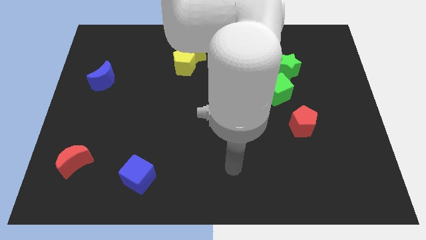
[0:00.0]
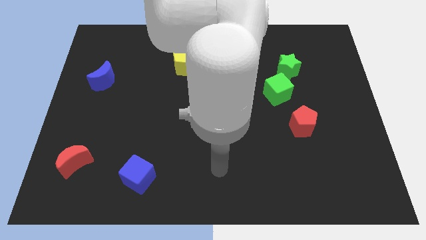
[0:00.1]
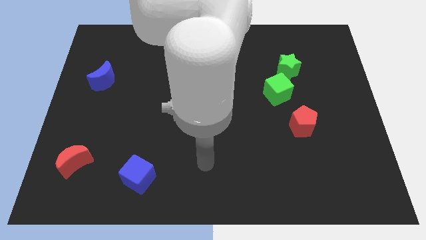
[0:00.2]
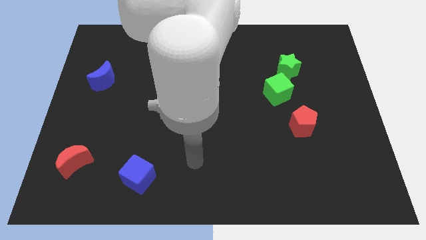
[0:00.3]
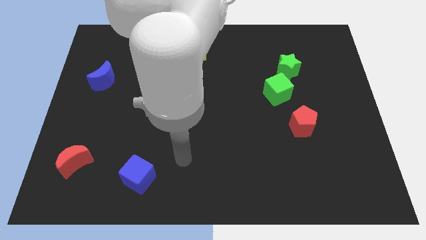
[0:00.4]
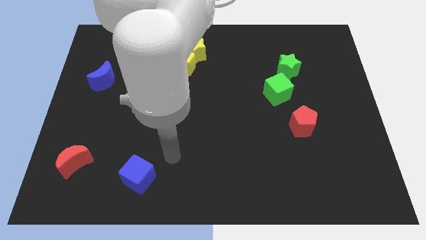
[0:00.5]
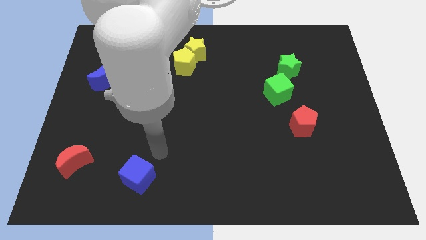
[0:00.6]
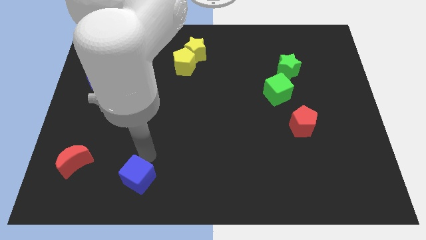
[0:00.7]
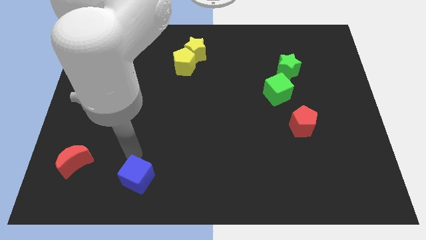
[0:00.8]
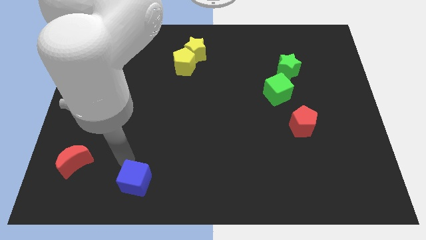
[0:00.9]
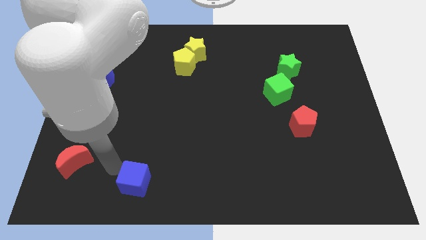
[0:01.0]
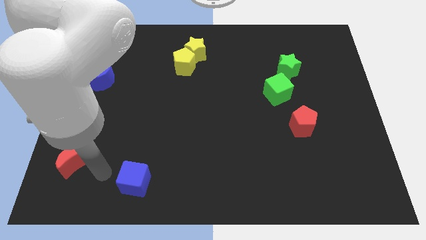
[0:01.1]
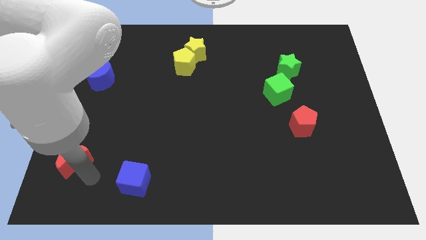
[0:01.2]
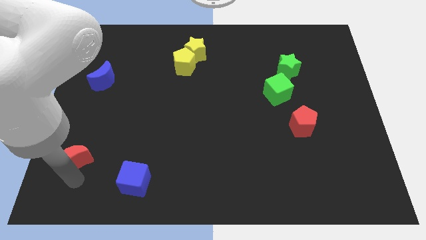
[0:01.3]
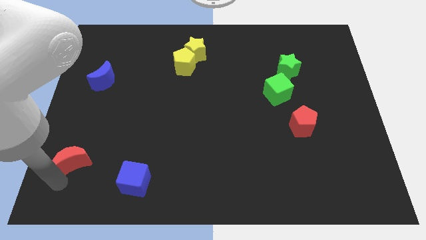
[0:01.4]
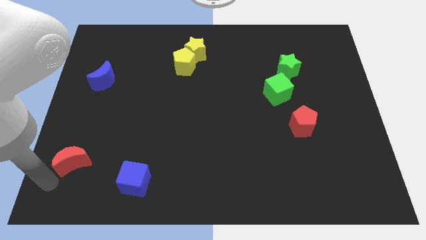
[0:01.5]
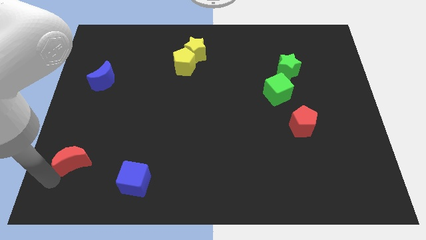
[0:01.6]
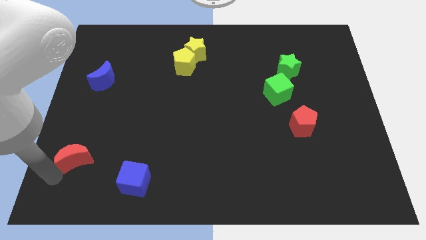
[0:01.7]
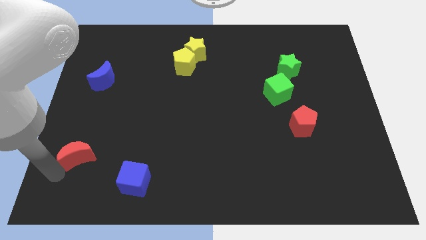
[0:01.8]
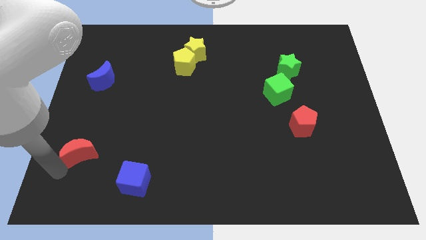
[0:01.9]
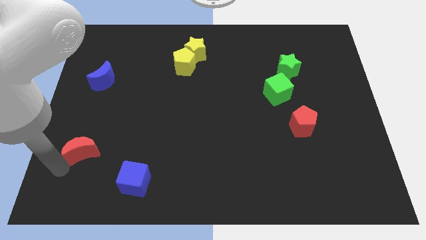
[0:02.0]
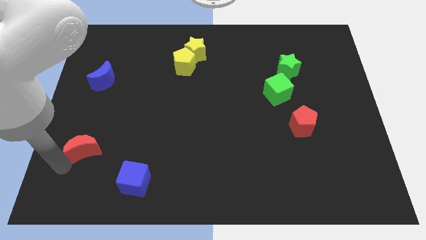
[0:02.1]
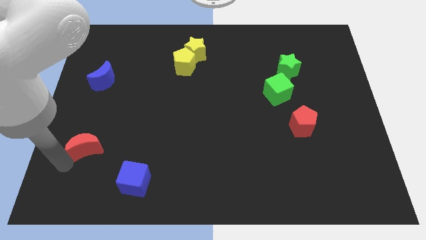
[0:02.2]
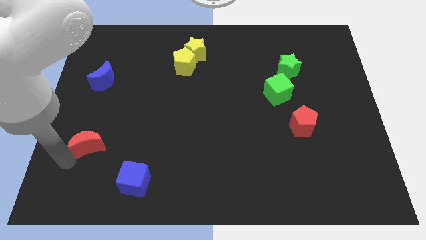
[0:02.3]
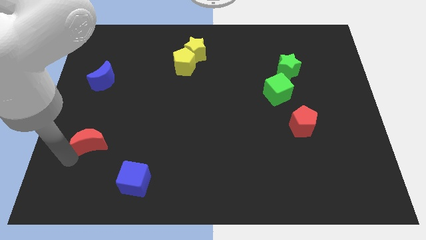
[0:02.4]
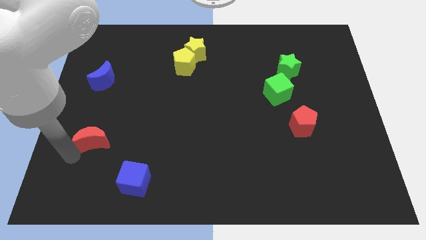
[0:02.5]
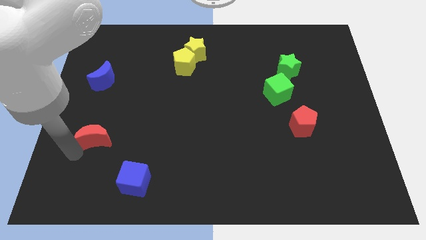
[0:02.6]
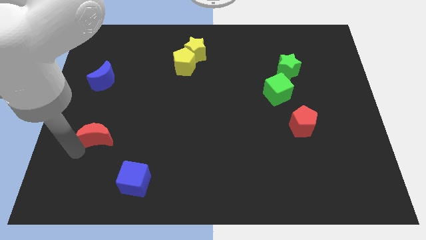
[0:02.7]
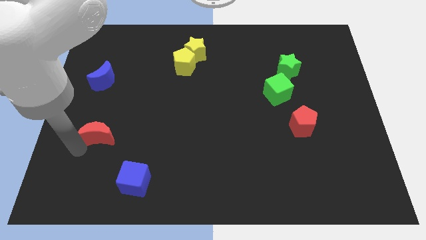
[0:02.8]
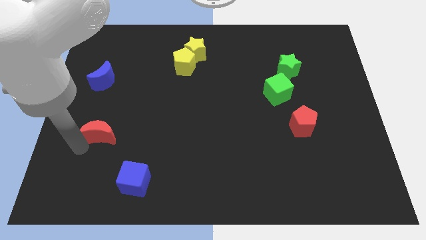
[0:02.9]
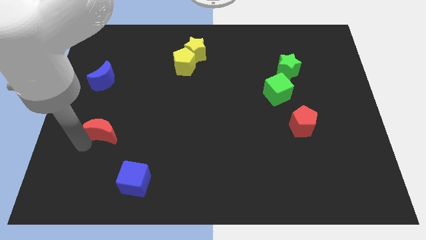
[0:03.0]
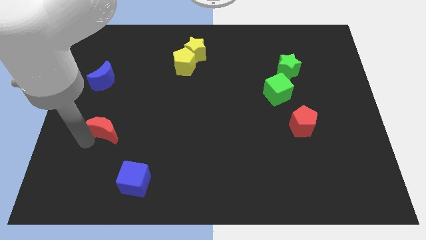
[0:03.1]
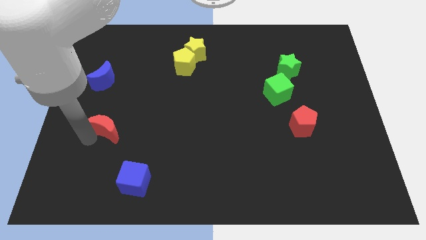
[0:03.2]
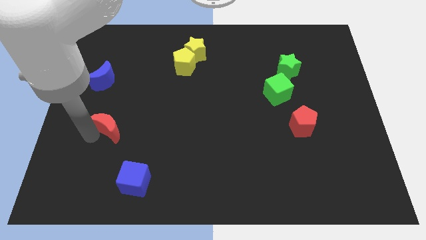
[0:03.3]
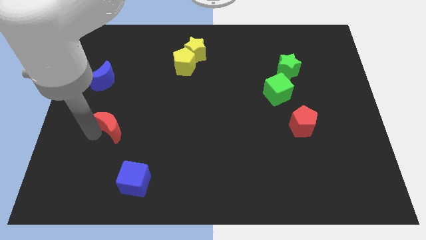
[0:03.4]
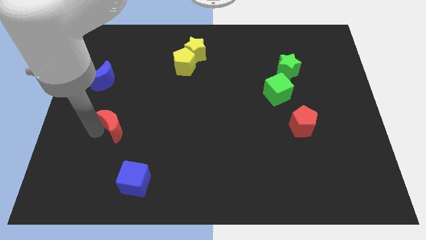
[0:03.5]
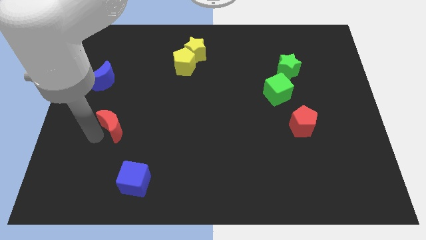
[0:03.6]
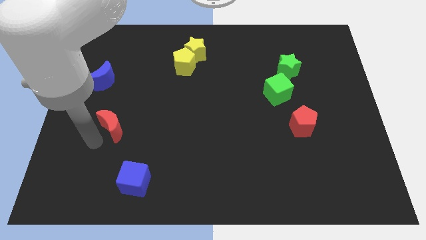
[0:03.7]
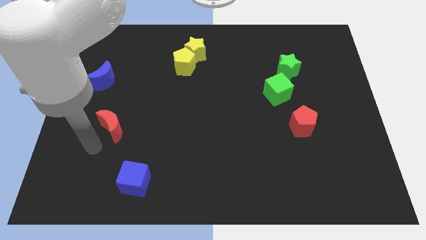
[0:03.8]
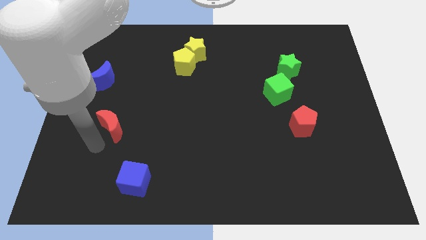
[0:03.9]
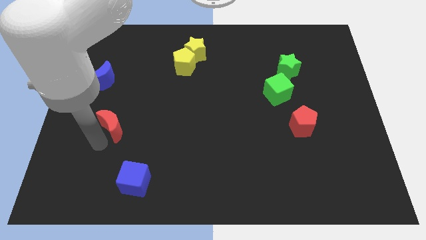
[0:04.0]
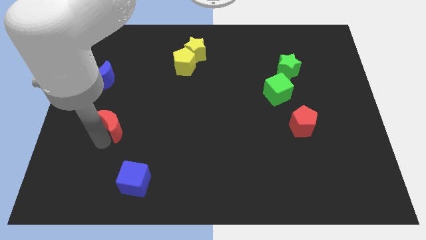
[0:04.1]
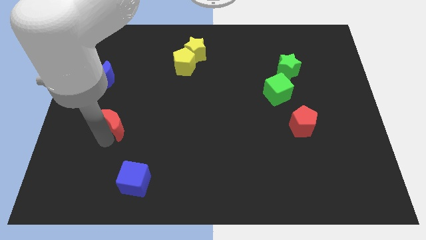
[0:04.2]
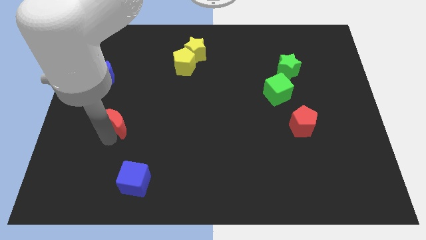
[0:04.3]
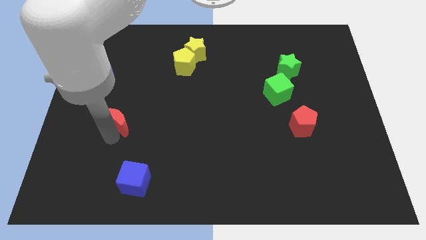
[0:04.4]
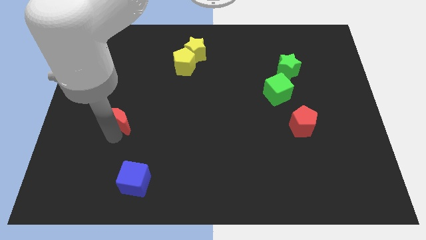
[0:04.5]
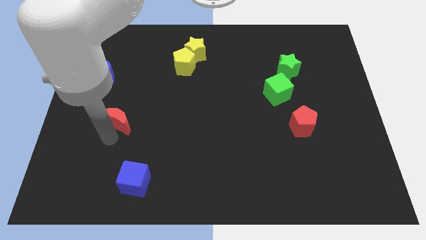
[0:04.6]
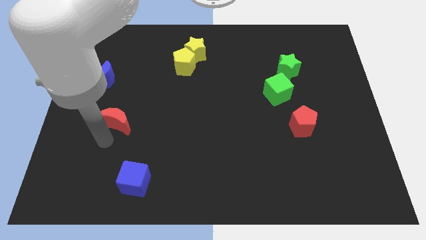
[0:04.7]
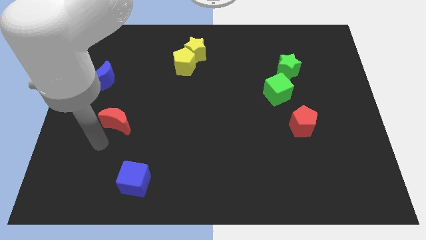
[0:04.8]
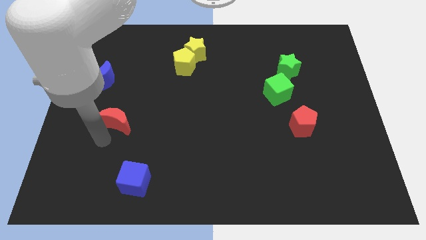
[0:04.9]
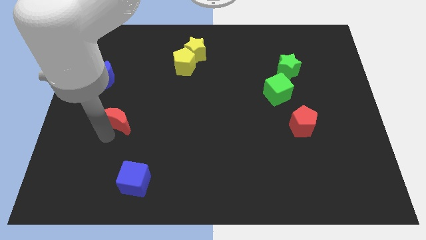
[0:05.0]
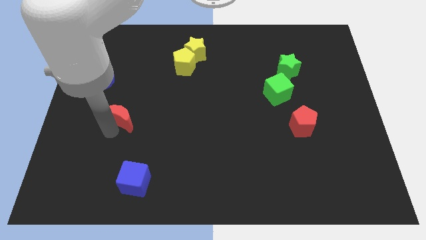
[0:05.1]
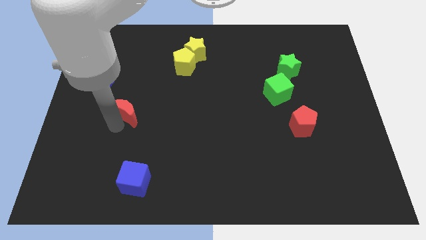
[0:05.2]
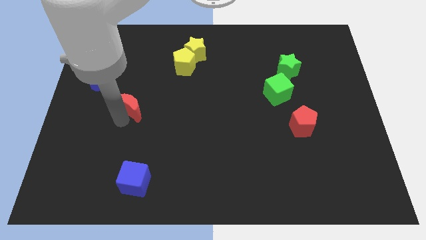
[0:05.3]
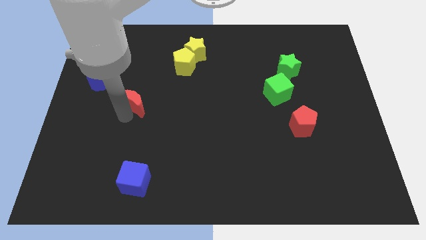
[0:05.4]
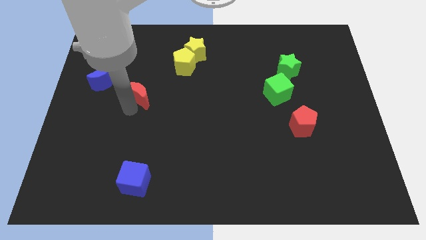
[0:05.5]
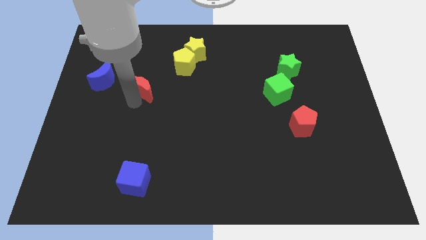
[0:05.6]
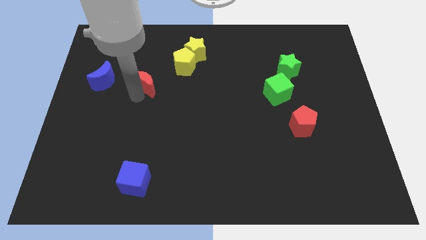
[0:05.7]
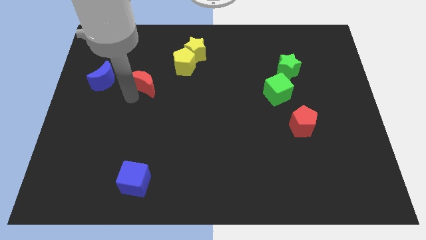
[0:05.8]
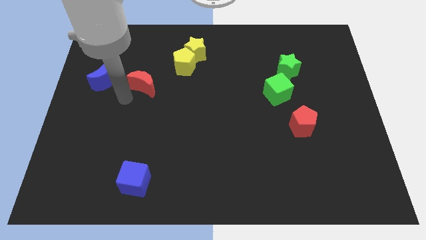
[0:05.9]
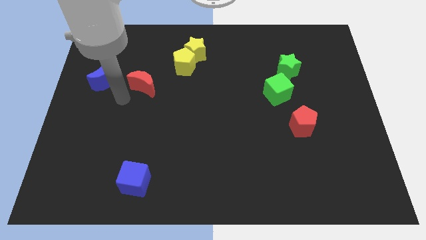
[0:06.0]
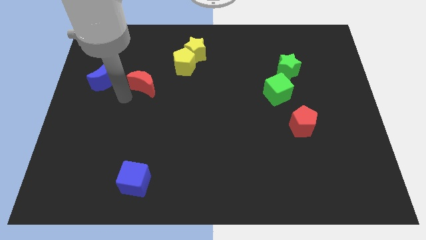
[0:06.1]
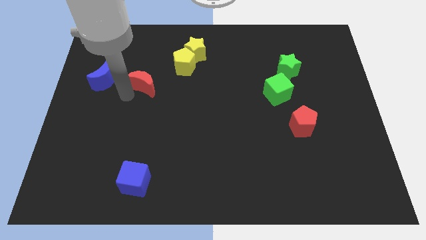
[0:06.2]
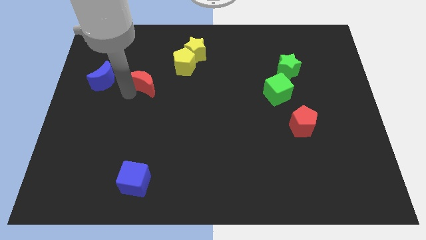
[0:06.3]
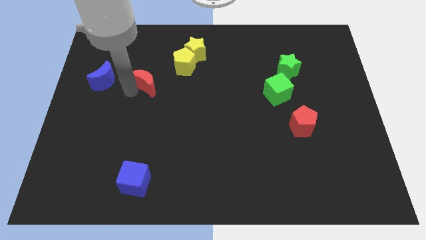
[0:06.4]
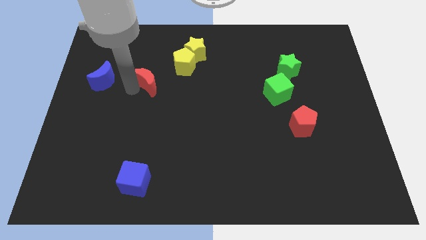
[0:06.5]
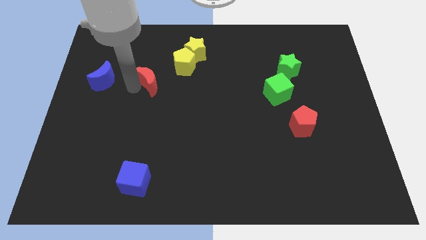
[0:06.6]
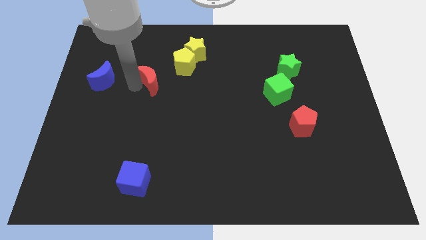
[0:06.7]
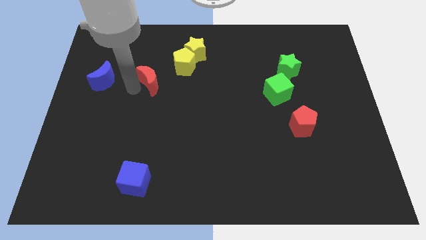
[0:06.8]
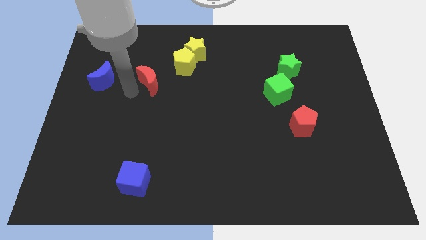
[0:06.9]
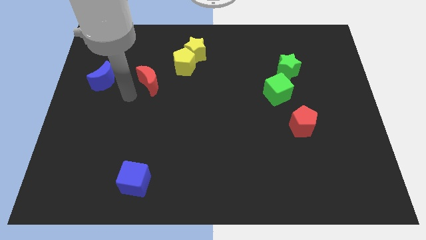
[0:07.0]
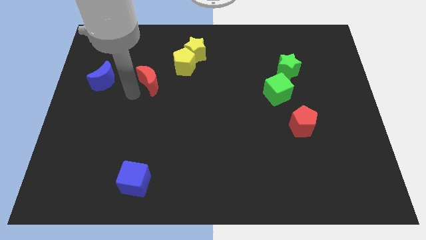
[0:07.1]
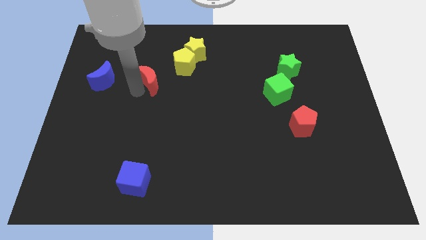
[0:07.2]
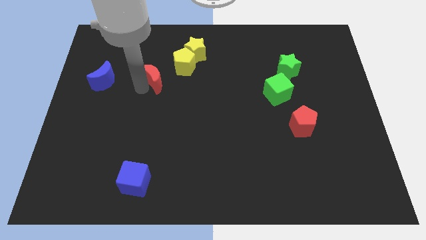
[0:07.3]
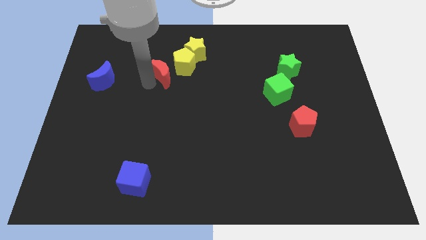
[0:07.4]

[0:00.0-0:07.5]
put the red moon next to the yellow pentagon

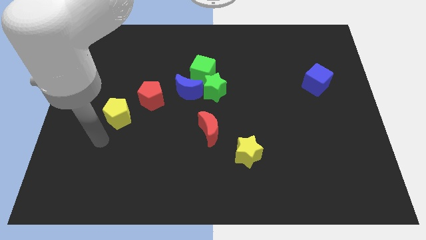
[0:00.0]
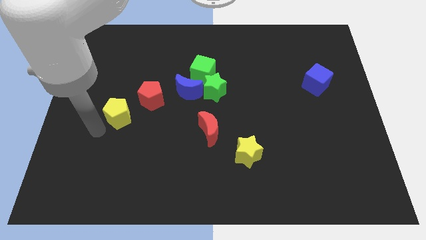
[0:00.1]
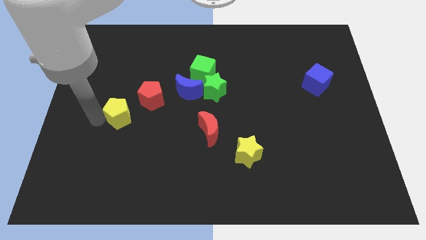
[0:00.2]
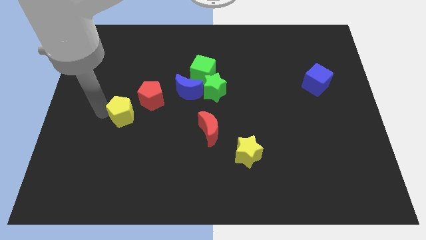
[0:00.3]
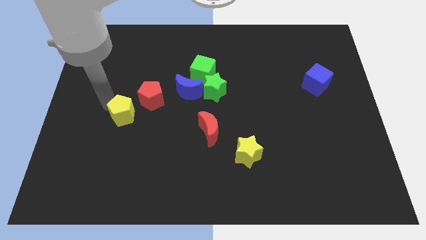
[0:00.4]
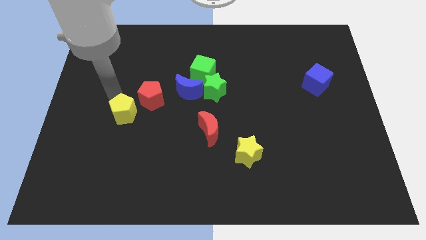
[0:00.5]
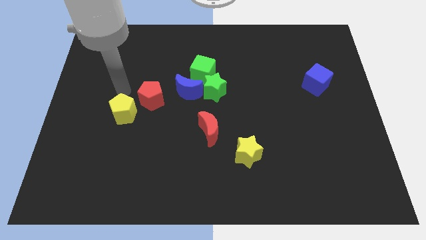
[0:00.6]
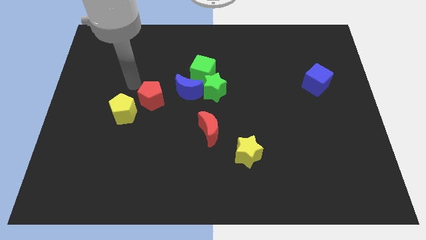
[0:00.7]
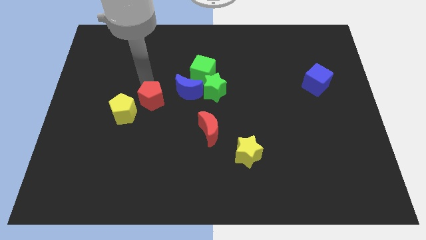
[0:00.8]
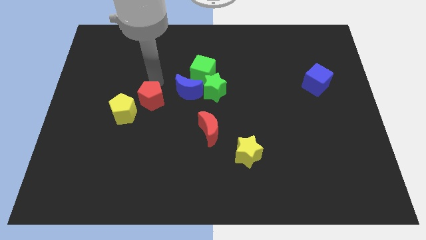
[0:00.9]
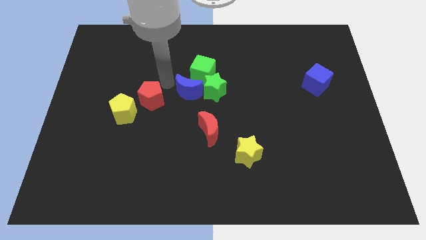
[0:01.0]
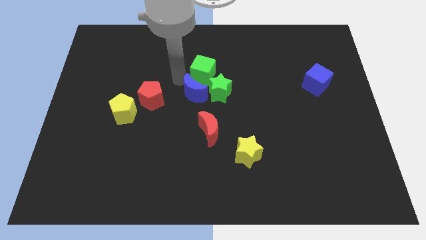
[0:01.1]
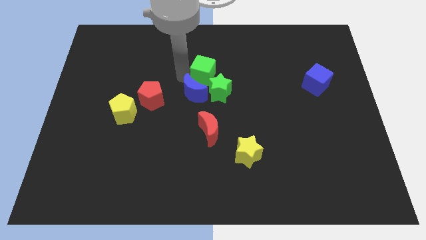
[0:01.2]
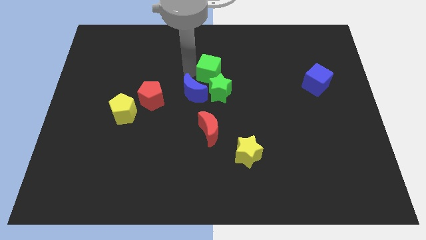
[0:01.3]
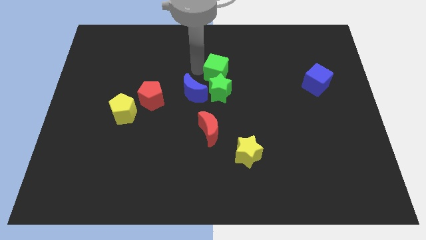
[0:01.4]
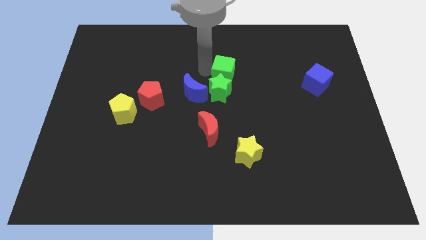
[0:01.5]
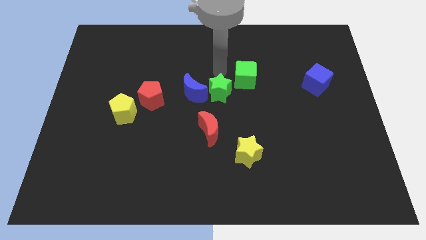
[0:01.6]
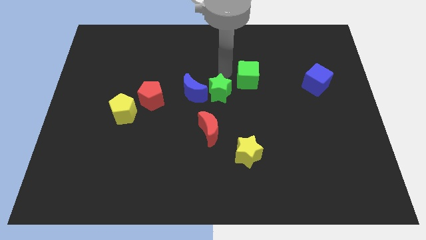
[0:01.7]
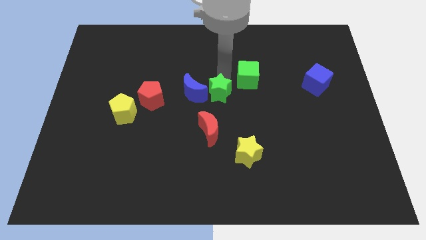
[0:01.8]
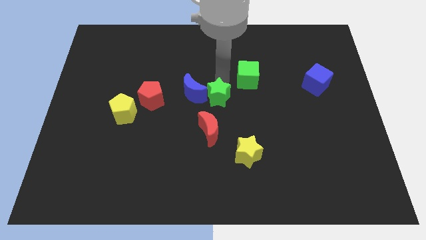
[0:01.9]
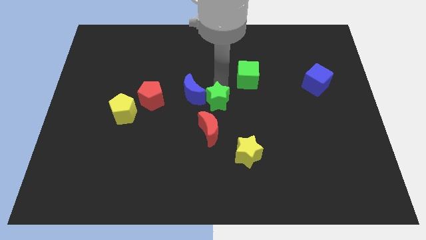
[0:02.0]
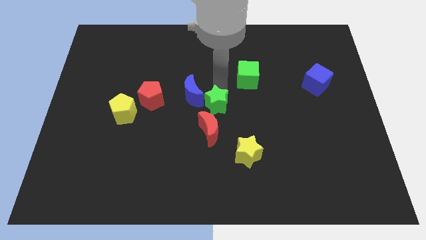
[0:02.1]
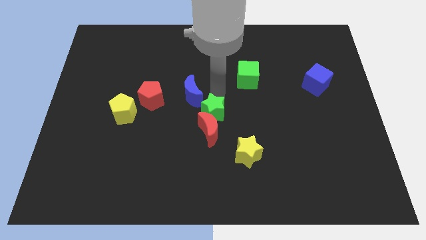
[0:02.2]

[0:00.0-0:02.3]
put the green star towards the red moon
